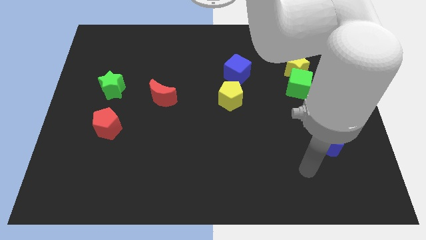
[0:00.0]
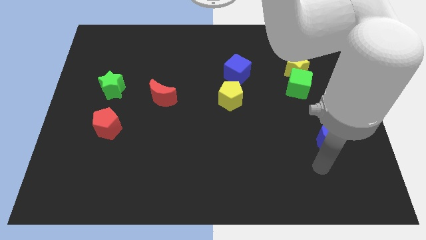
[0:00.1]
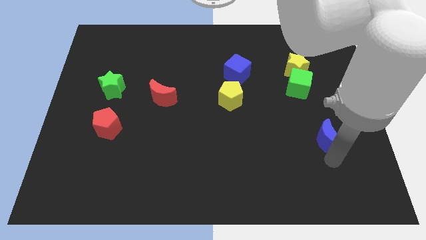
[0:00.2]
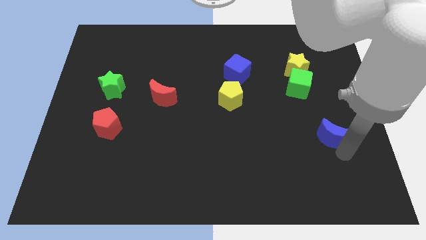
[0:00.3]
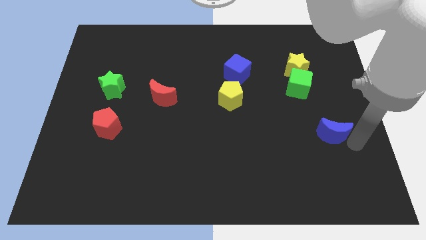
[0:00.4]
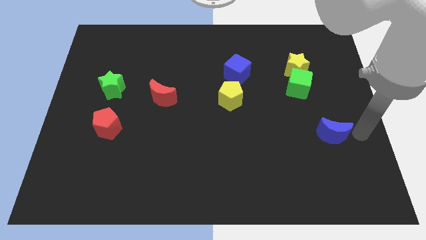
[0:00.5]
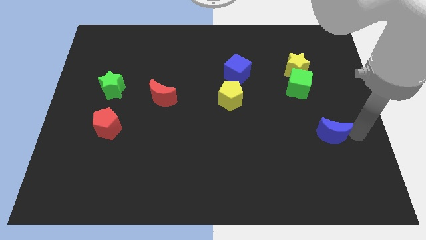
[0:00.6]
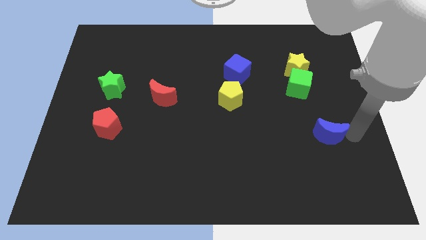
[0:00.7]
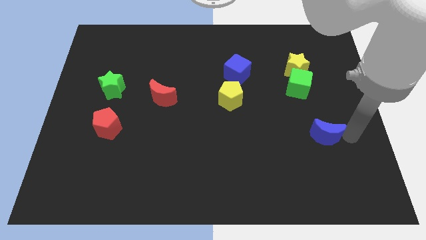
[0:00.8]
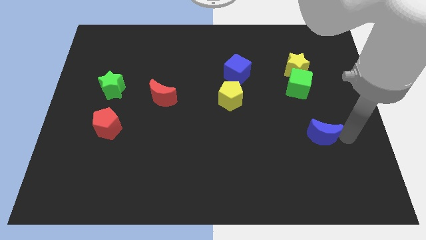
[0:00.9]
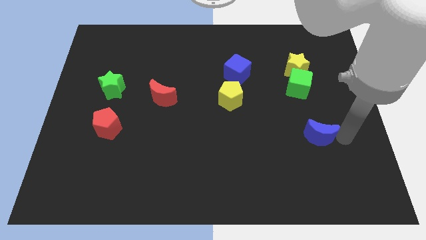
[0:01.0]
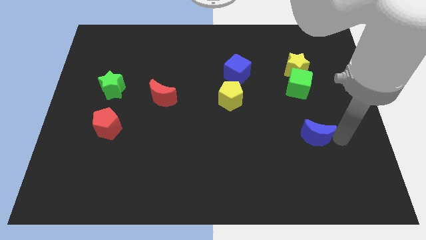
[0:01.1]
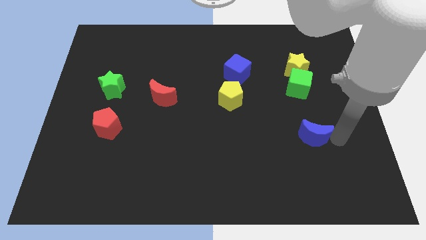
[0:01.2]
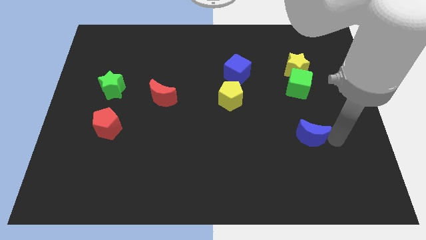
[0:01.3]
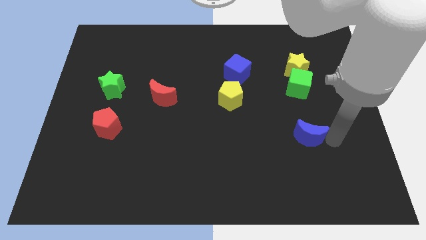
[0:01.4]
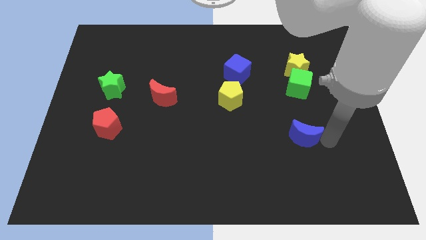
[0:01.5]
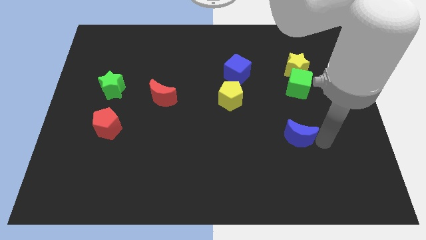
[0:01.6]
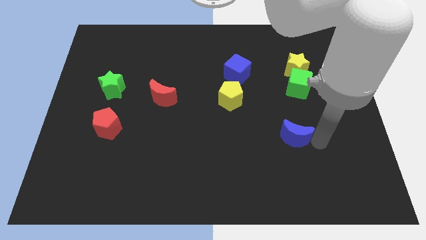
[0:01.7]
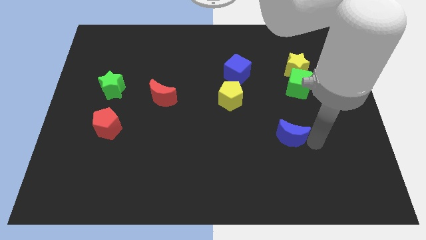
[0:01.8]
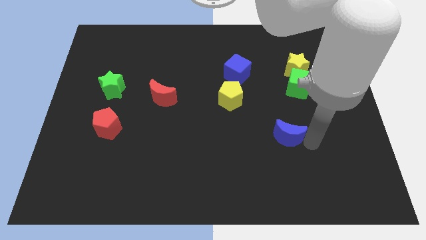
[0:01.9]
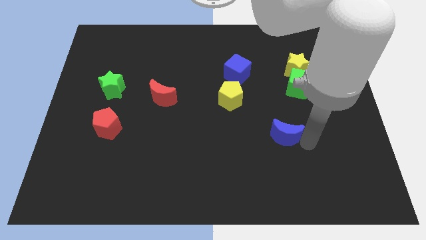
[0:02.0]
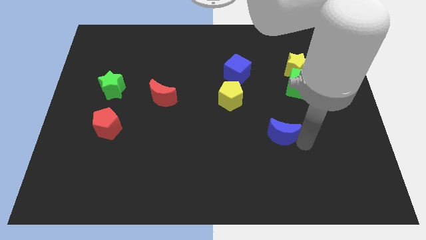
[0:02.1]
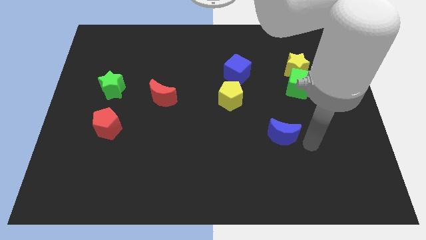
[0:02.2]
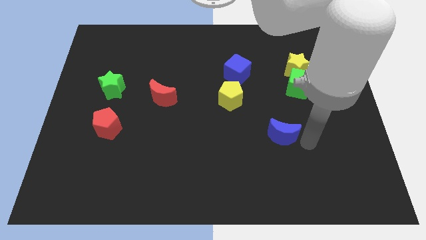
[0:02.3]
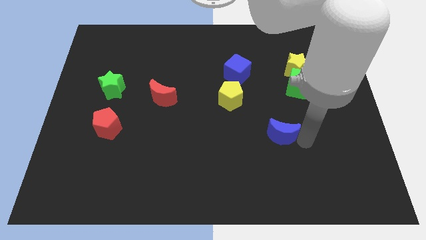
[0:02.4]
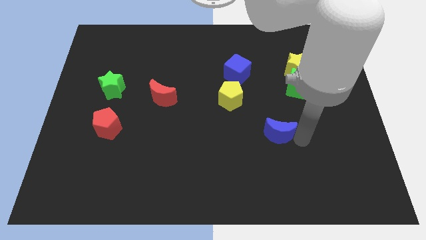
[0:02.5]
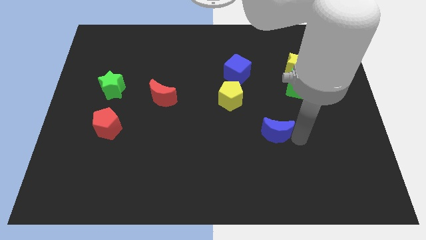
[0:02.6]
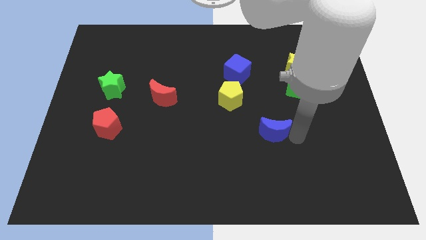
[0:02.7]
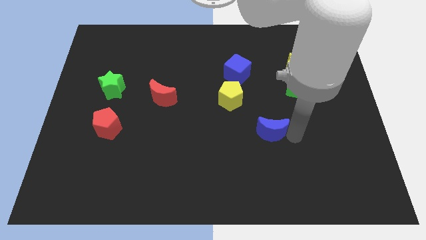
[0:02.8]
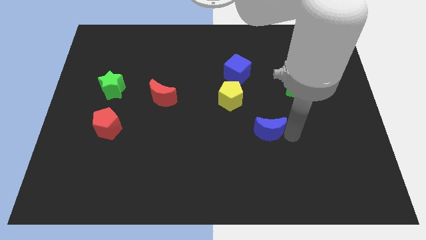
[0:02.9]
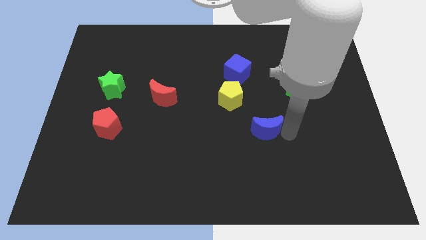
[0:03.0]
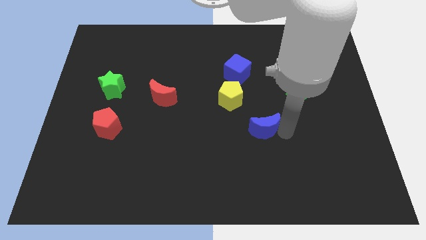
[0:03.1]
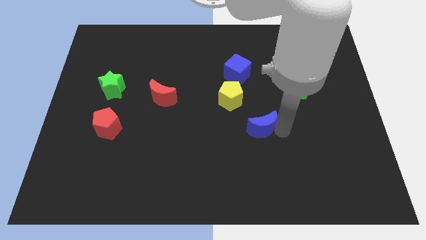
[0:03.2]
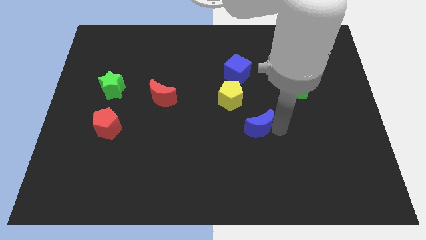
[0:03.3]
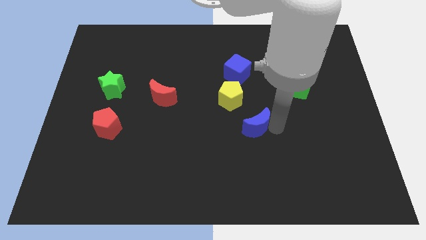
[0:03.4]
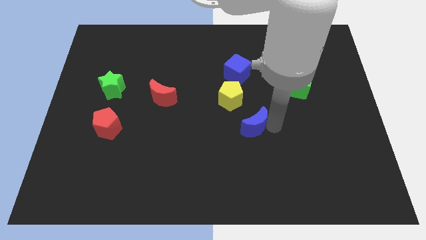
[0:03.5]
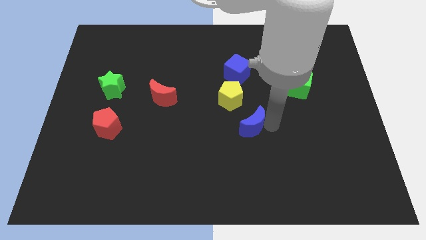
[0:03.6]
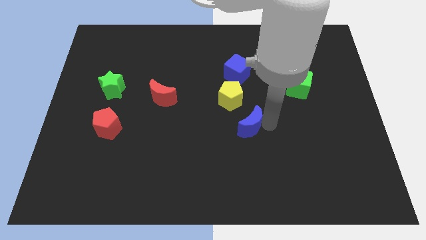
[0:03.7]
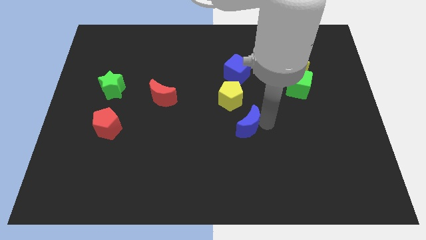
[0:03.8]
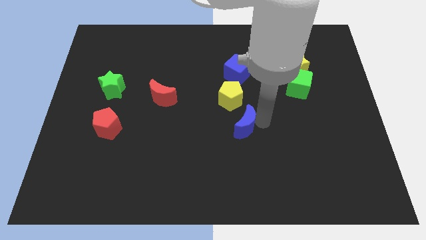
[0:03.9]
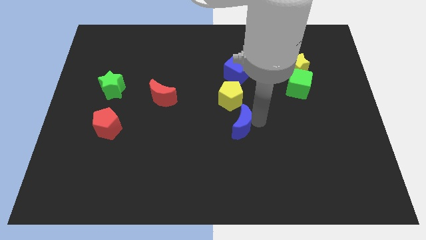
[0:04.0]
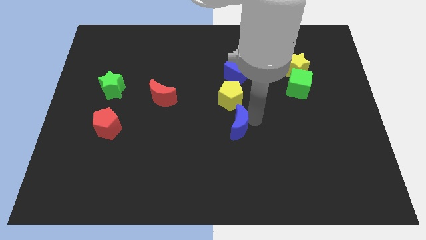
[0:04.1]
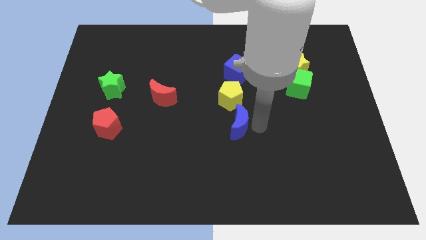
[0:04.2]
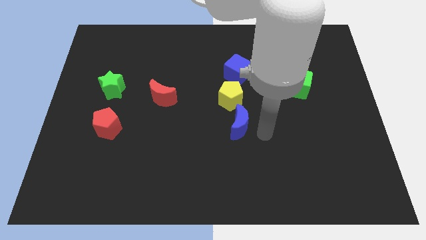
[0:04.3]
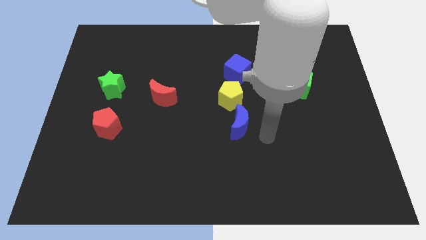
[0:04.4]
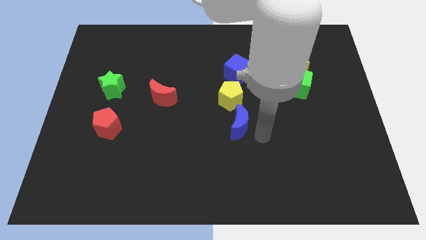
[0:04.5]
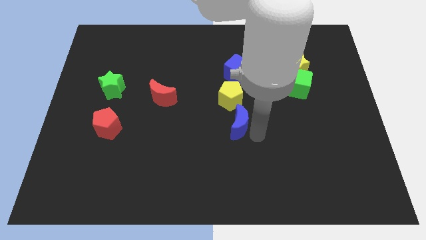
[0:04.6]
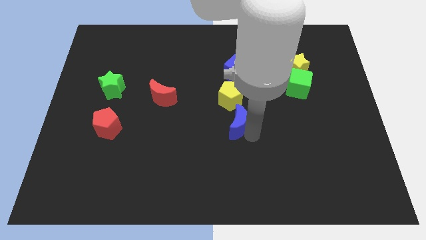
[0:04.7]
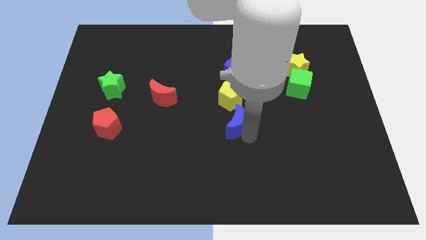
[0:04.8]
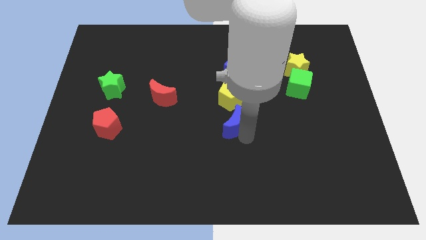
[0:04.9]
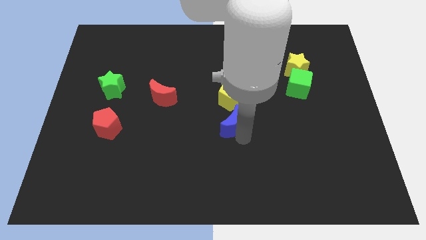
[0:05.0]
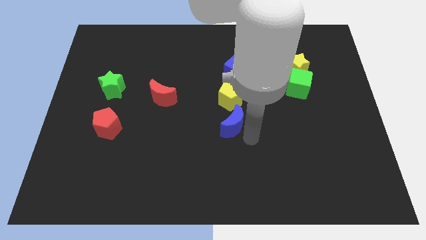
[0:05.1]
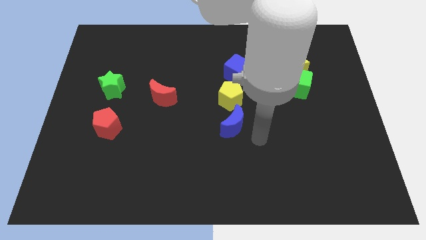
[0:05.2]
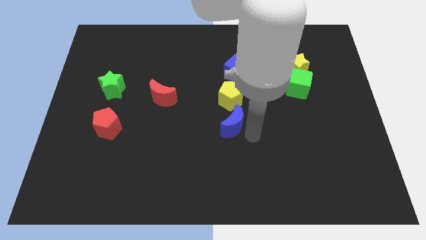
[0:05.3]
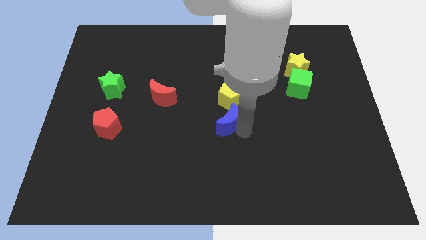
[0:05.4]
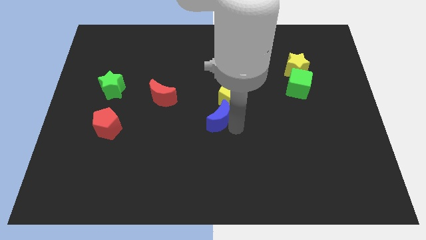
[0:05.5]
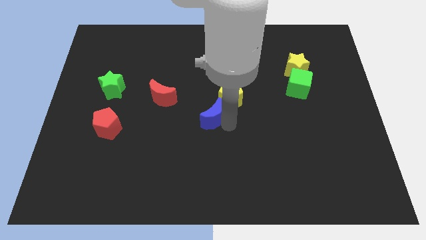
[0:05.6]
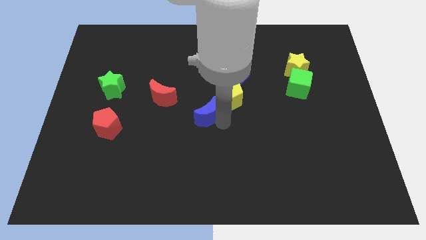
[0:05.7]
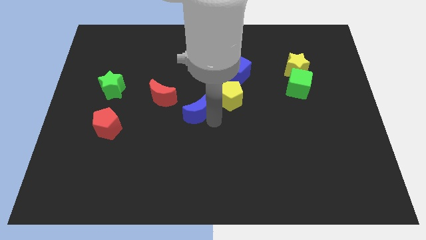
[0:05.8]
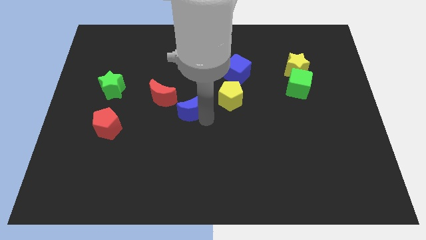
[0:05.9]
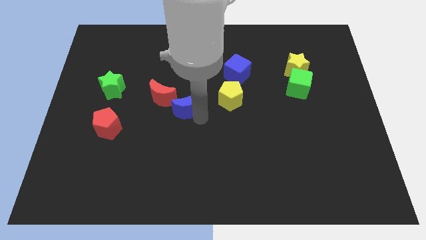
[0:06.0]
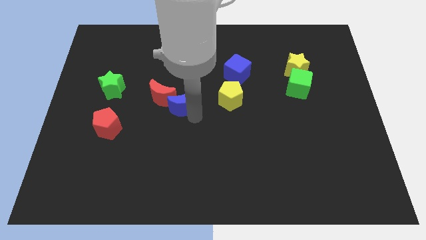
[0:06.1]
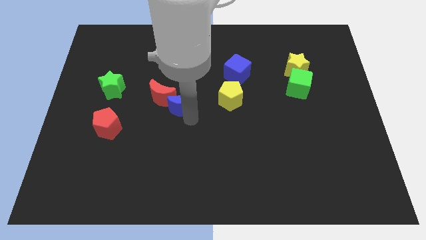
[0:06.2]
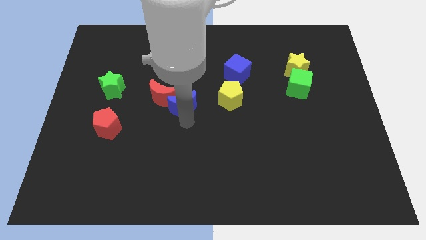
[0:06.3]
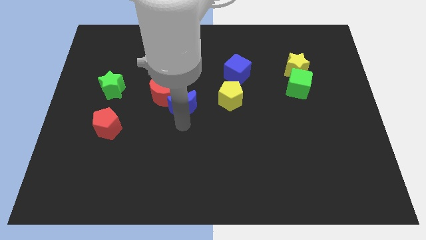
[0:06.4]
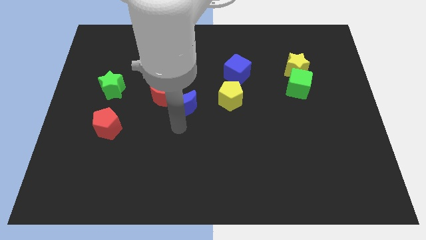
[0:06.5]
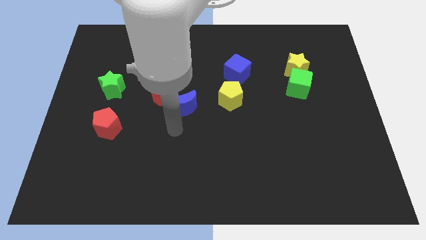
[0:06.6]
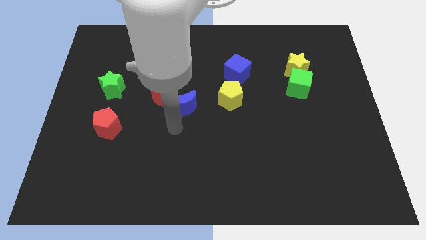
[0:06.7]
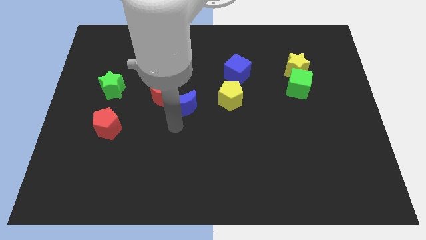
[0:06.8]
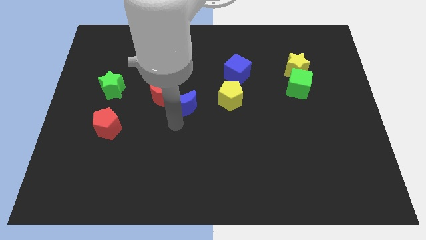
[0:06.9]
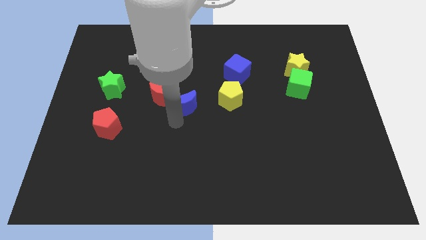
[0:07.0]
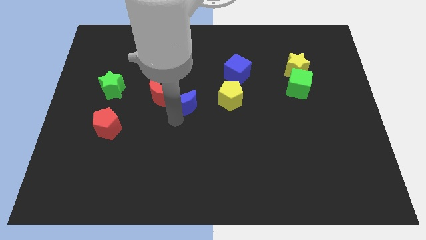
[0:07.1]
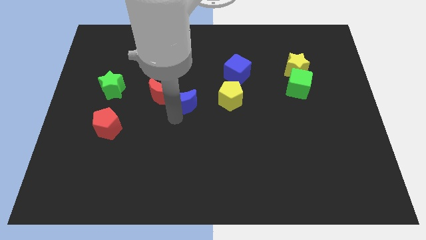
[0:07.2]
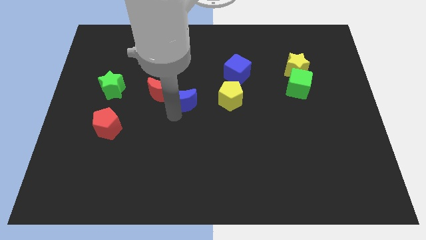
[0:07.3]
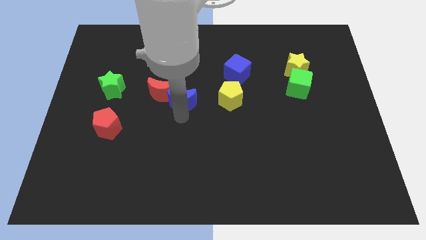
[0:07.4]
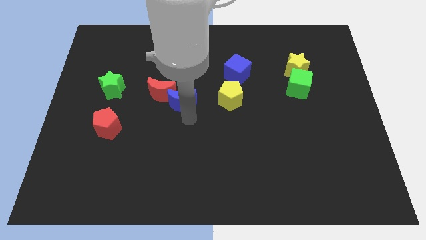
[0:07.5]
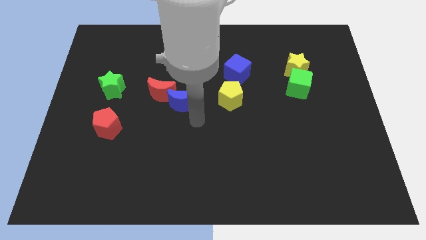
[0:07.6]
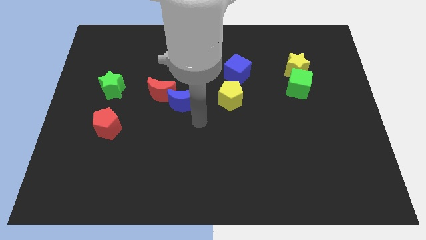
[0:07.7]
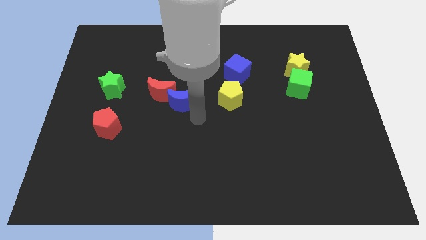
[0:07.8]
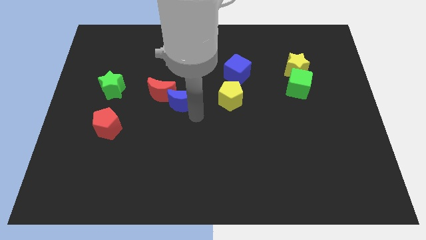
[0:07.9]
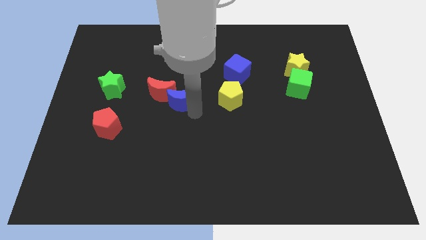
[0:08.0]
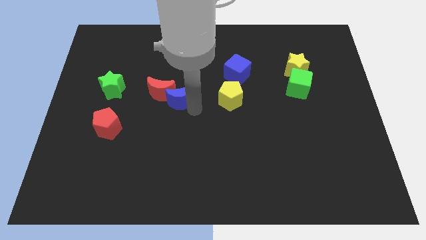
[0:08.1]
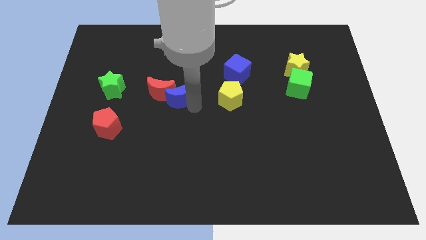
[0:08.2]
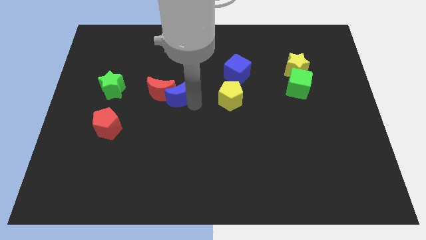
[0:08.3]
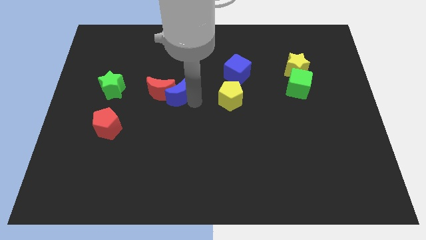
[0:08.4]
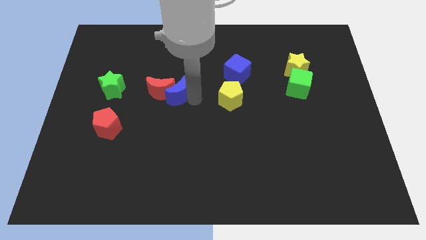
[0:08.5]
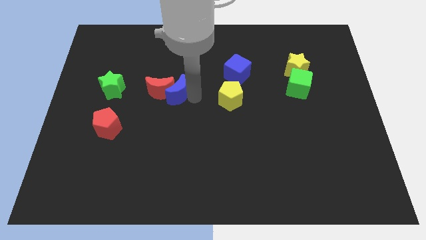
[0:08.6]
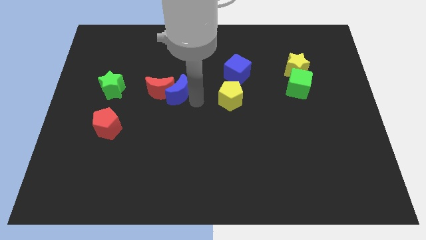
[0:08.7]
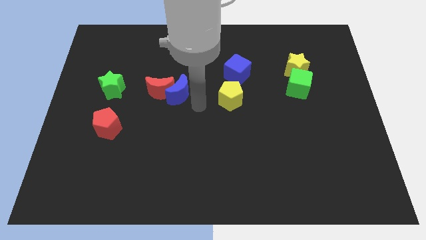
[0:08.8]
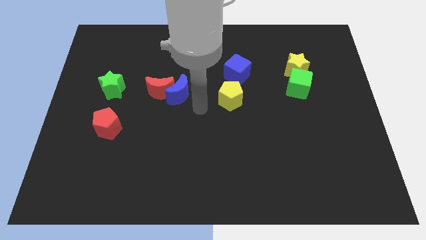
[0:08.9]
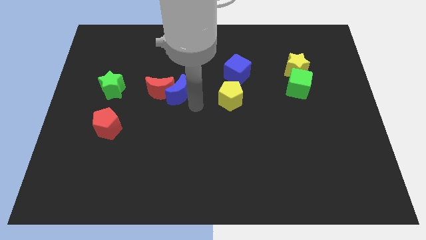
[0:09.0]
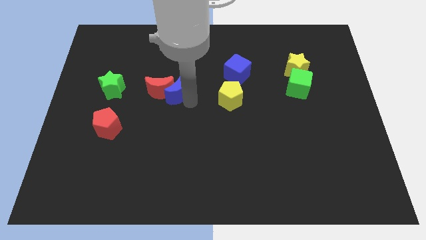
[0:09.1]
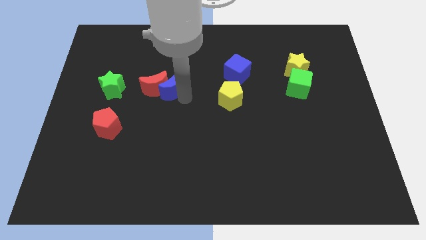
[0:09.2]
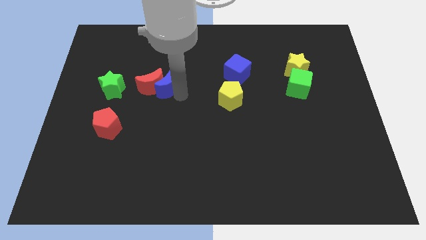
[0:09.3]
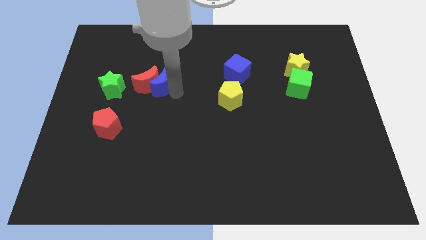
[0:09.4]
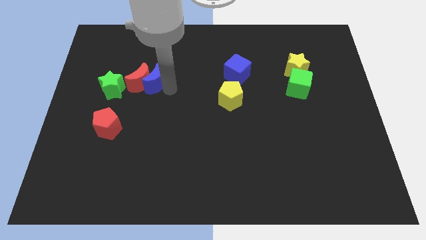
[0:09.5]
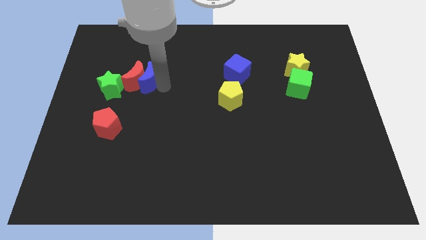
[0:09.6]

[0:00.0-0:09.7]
push the blue moon diagonally up and to the right of the green star
